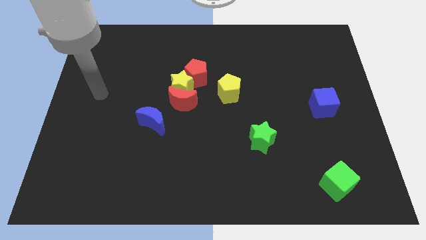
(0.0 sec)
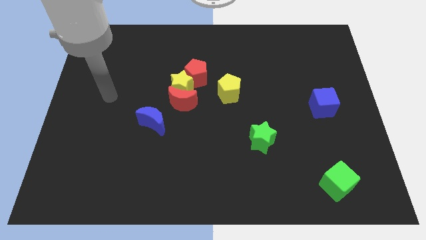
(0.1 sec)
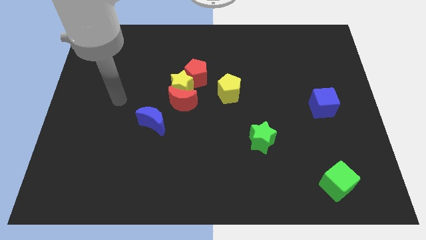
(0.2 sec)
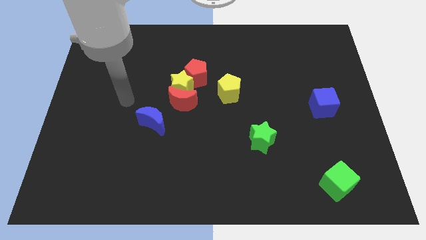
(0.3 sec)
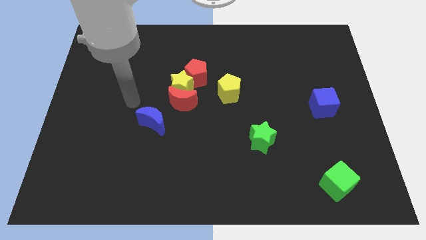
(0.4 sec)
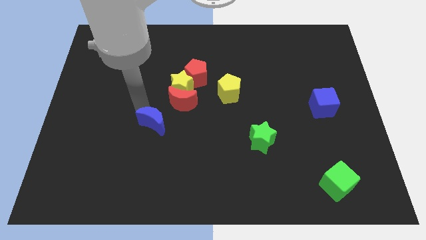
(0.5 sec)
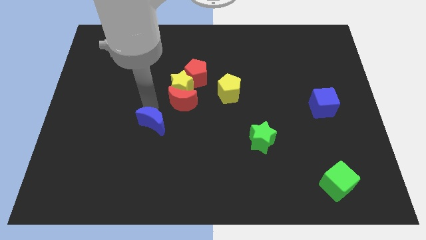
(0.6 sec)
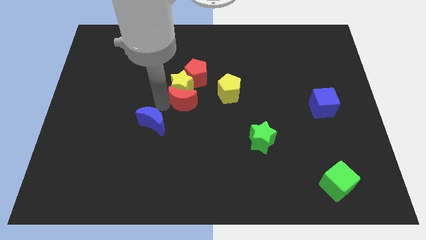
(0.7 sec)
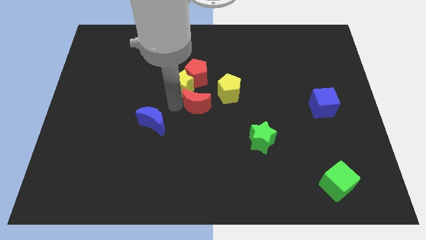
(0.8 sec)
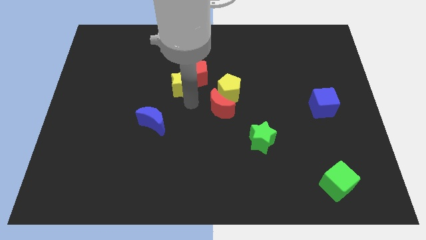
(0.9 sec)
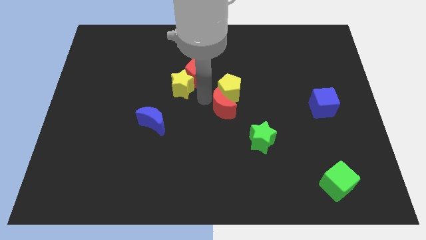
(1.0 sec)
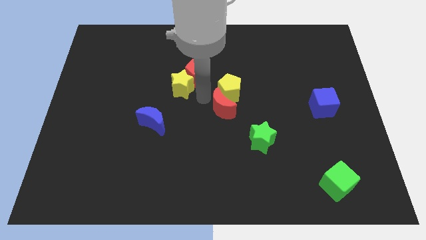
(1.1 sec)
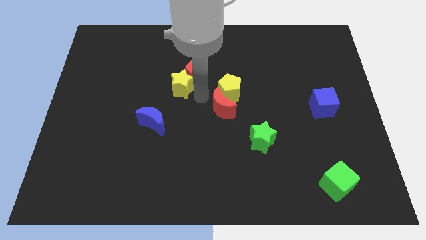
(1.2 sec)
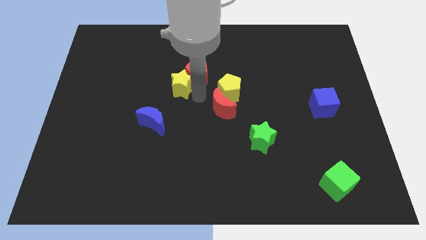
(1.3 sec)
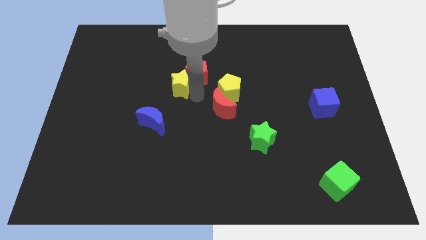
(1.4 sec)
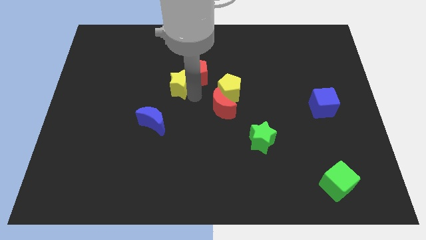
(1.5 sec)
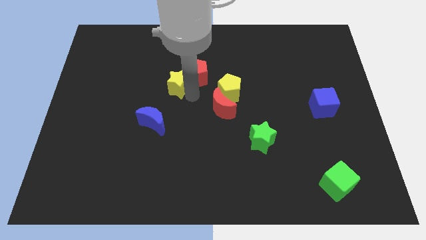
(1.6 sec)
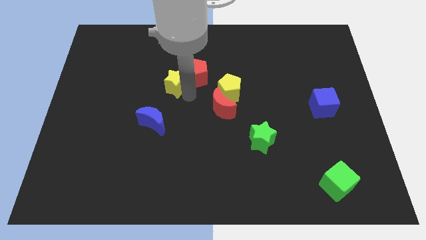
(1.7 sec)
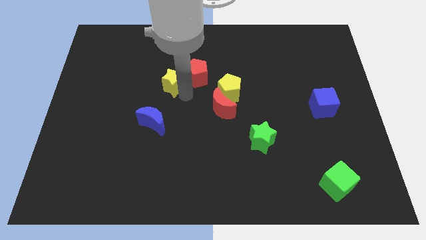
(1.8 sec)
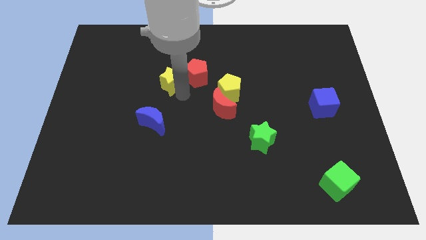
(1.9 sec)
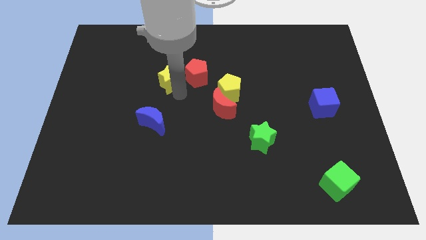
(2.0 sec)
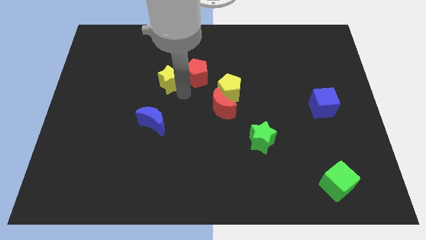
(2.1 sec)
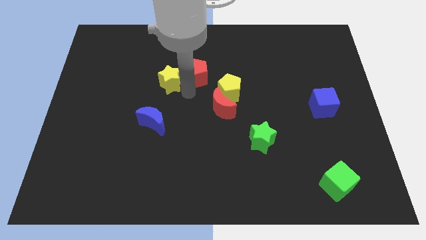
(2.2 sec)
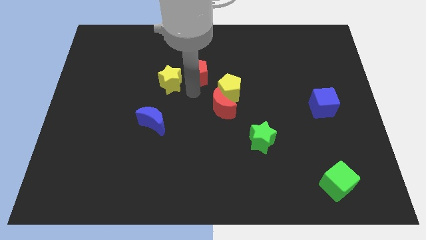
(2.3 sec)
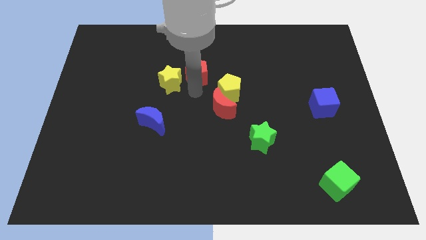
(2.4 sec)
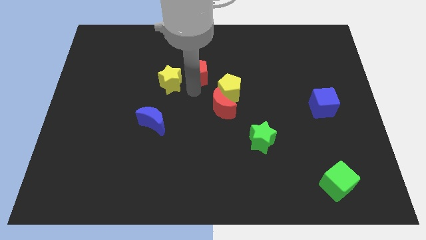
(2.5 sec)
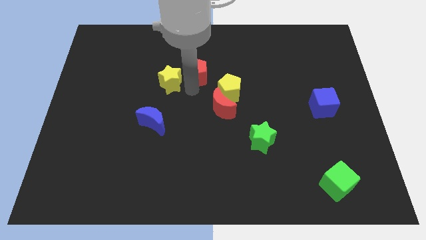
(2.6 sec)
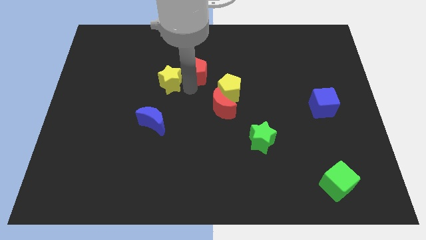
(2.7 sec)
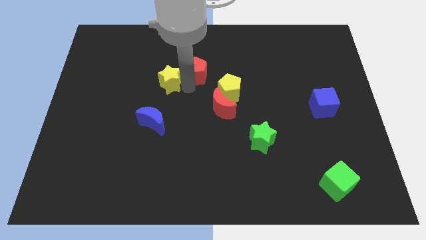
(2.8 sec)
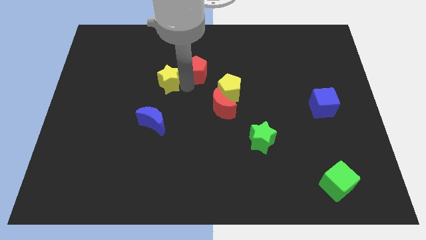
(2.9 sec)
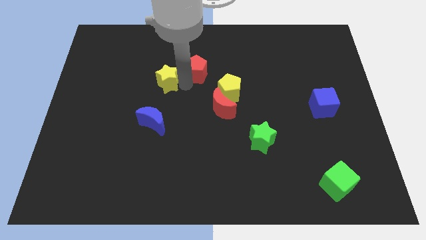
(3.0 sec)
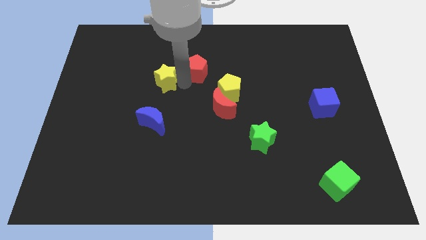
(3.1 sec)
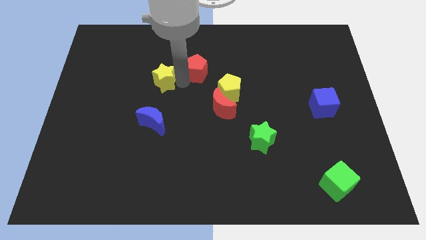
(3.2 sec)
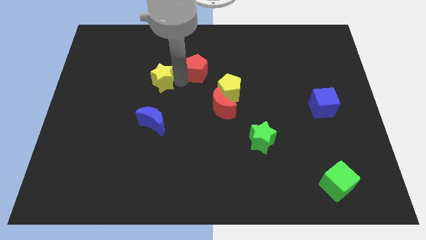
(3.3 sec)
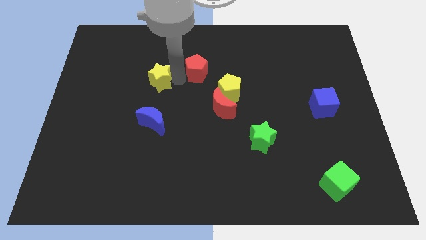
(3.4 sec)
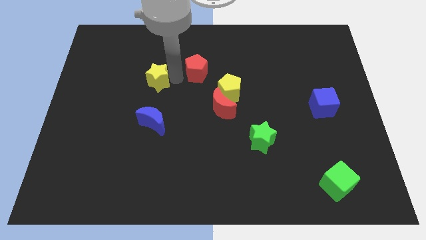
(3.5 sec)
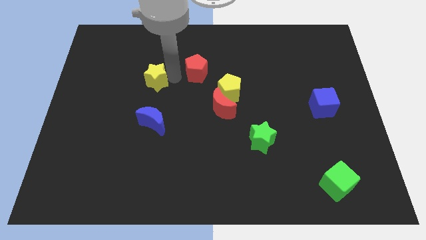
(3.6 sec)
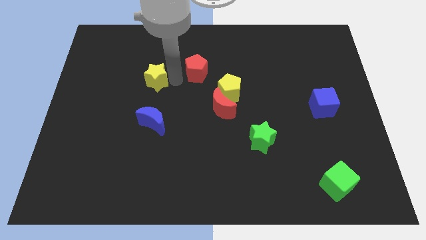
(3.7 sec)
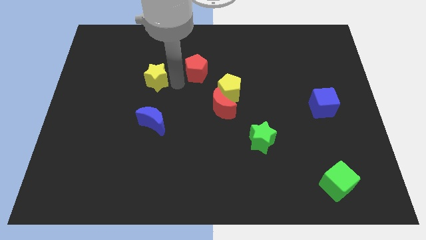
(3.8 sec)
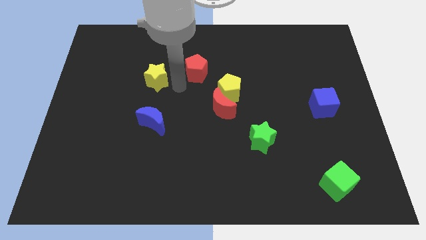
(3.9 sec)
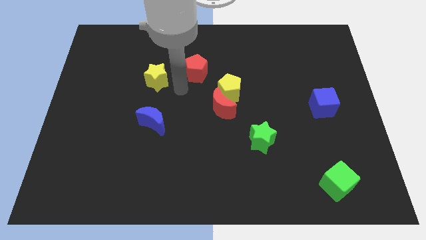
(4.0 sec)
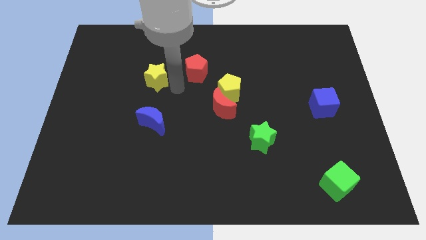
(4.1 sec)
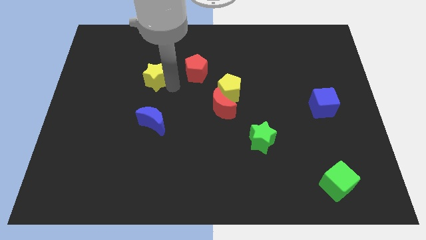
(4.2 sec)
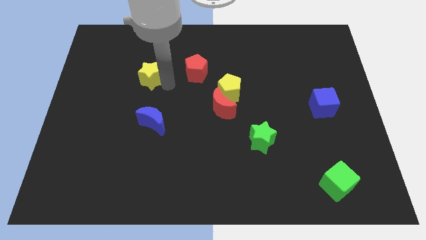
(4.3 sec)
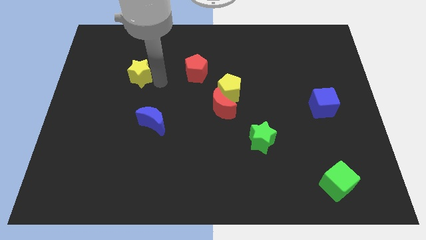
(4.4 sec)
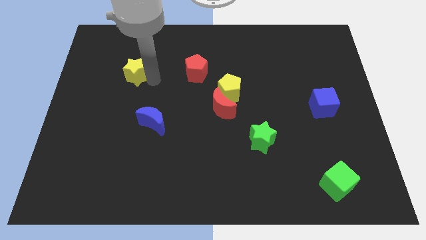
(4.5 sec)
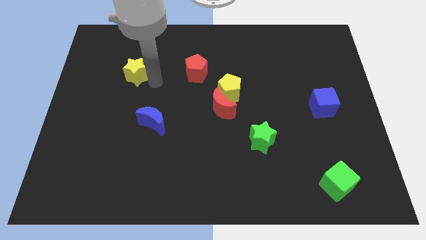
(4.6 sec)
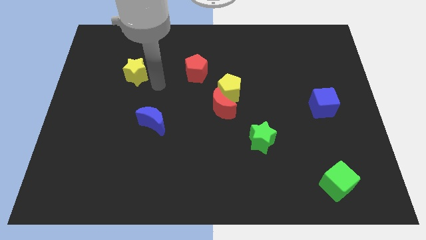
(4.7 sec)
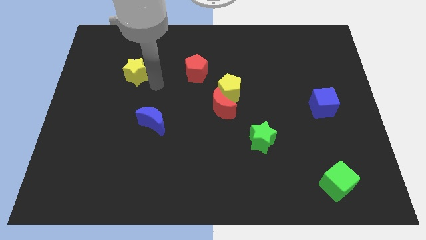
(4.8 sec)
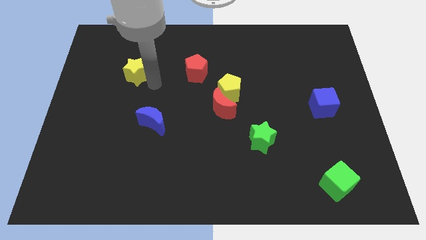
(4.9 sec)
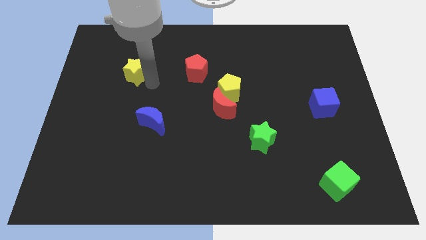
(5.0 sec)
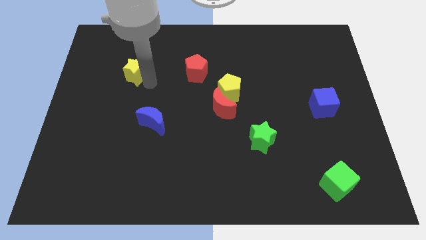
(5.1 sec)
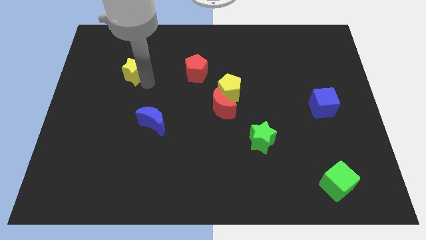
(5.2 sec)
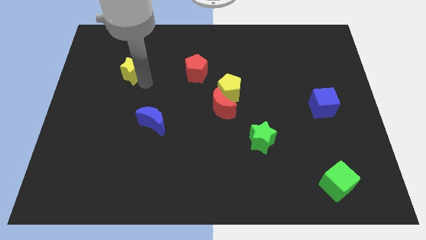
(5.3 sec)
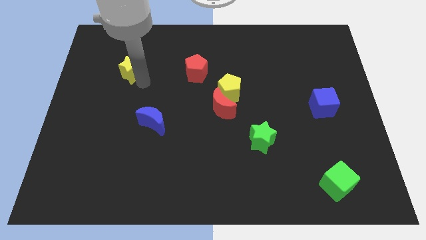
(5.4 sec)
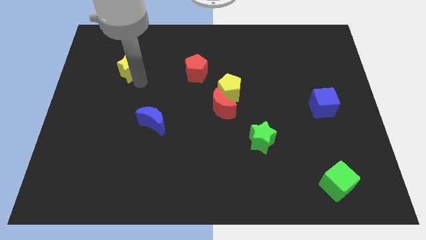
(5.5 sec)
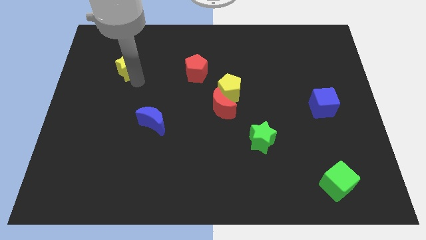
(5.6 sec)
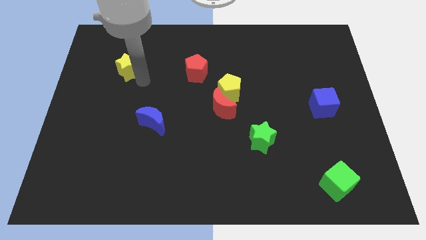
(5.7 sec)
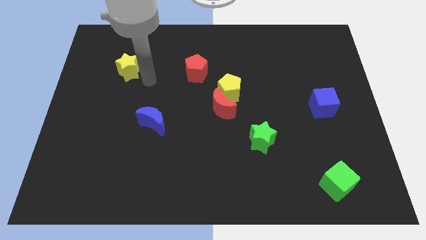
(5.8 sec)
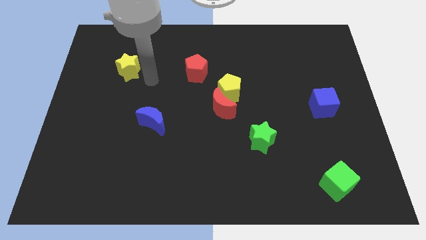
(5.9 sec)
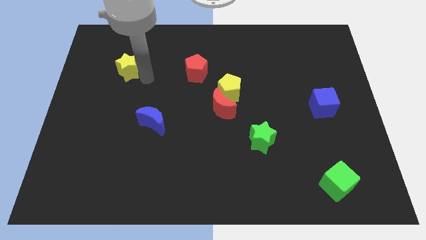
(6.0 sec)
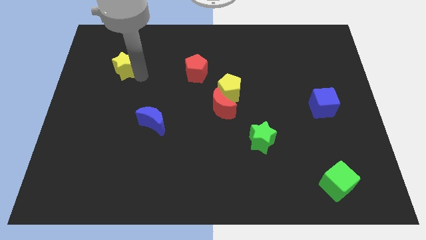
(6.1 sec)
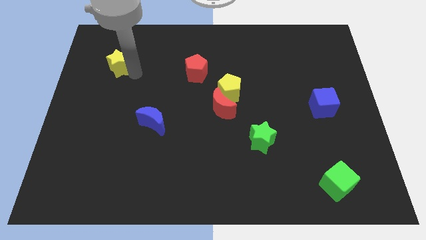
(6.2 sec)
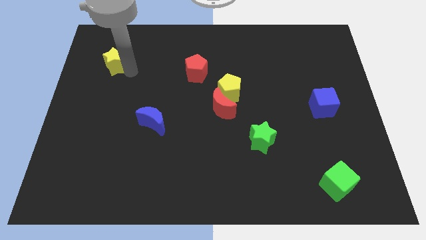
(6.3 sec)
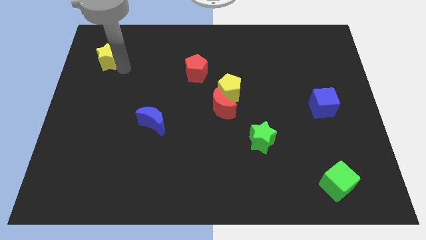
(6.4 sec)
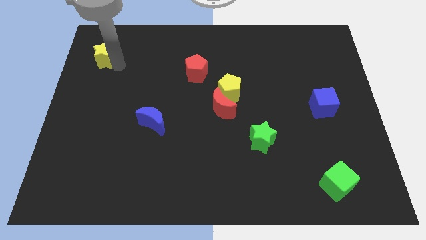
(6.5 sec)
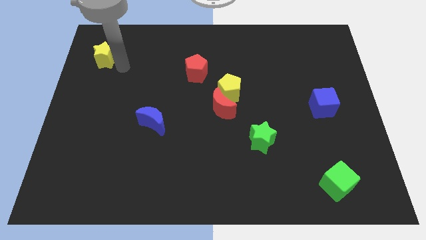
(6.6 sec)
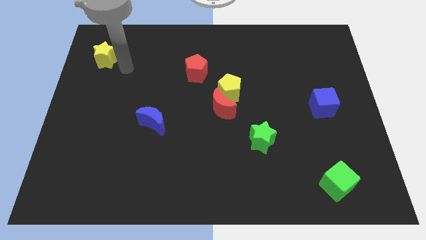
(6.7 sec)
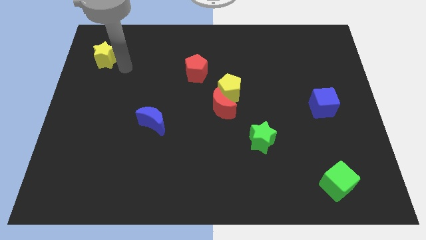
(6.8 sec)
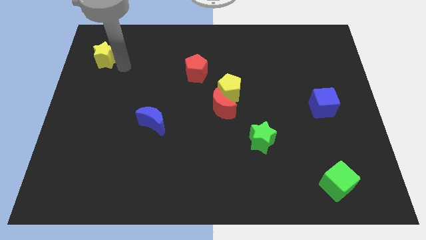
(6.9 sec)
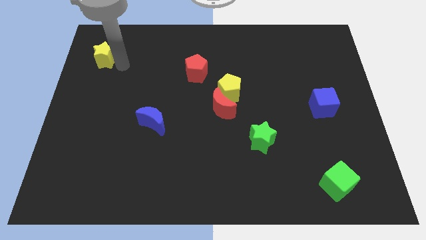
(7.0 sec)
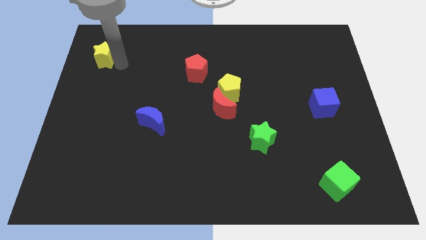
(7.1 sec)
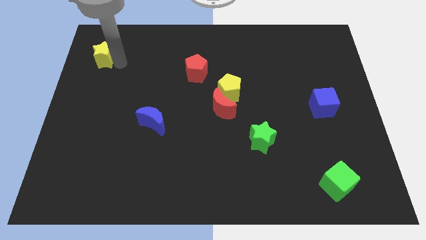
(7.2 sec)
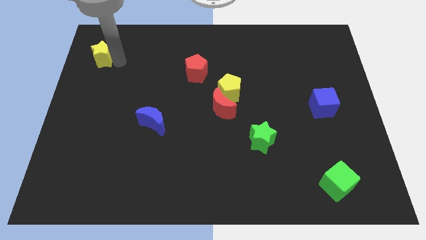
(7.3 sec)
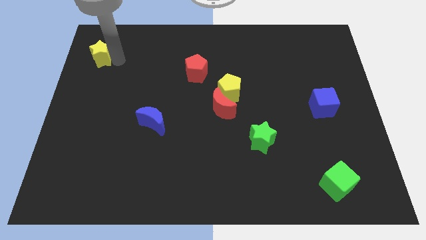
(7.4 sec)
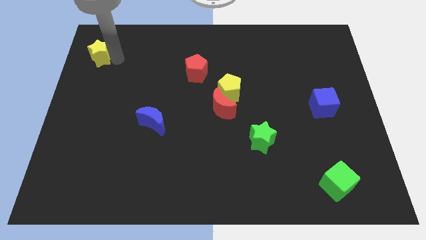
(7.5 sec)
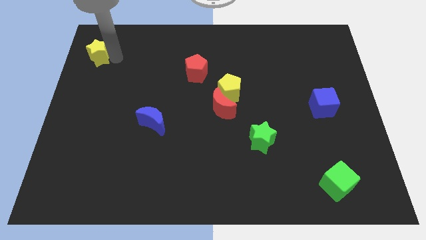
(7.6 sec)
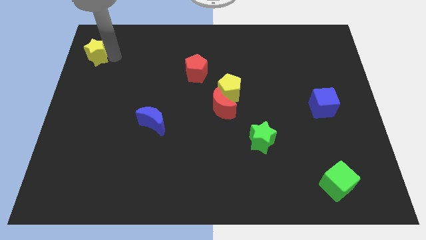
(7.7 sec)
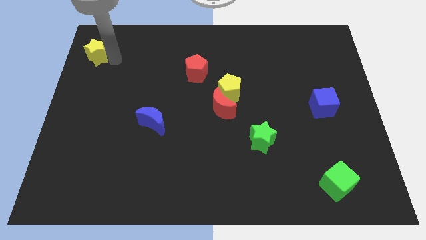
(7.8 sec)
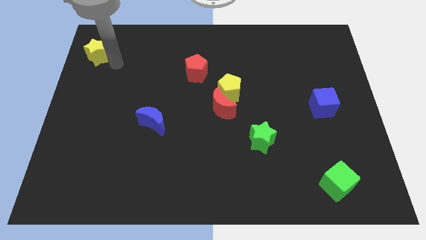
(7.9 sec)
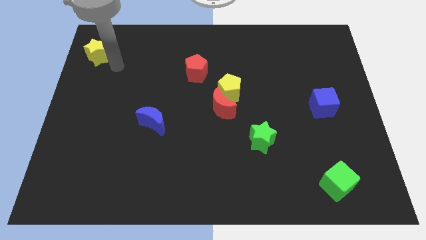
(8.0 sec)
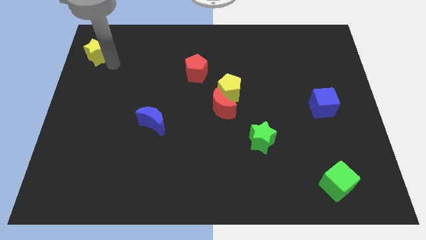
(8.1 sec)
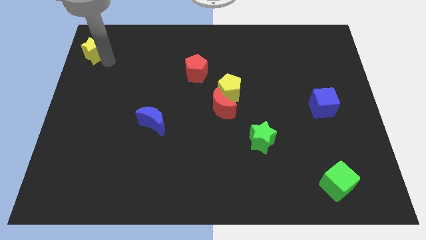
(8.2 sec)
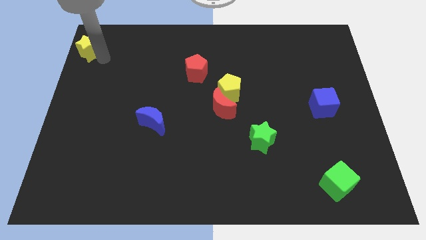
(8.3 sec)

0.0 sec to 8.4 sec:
put the yellow star to the top left corner
